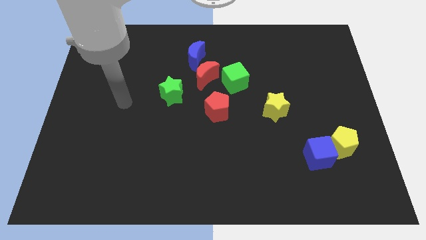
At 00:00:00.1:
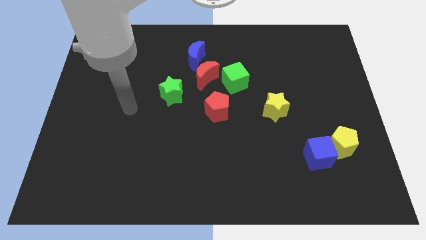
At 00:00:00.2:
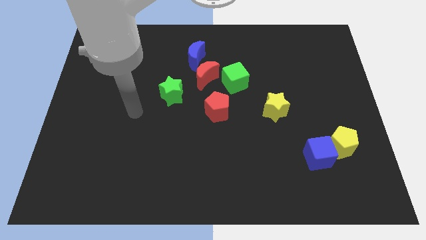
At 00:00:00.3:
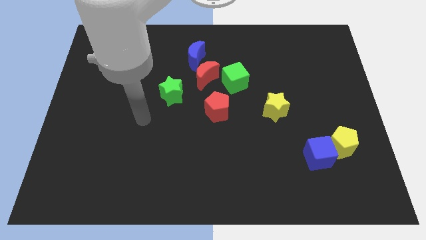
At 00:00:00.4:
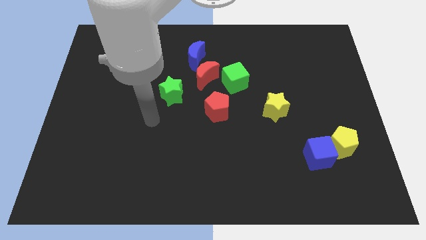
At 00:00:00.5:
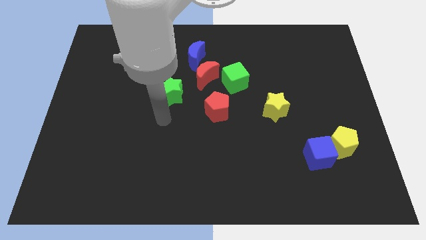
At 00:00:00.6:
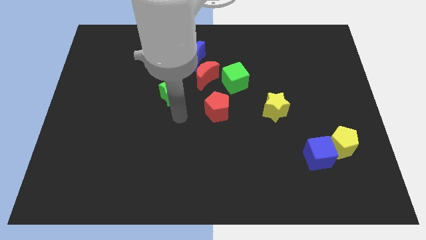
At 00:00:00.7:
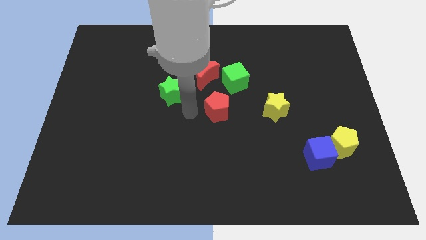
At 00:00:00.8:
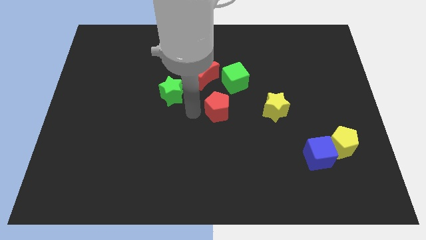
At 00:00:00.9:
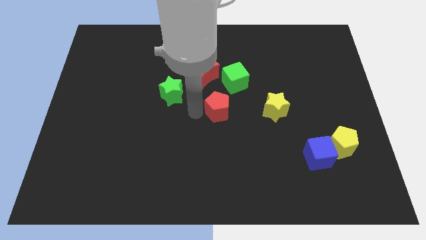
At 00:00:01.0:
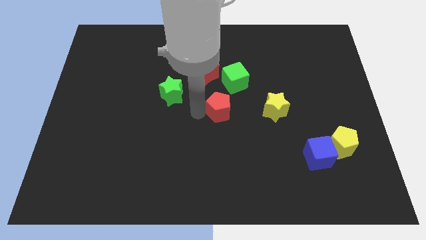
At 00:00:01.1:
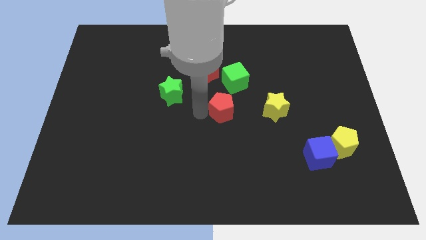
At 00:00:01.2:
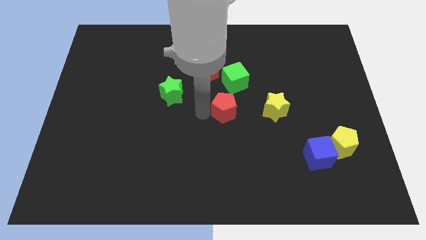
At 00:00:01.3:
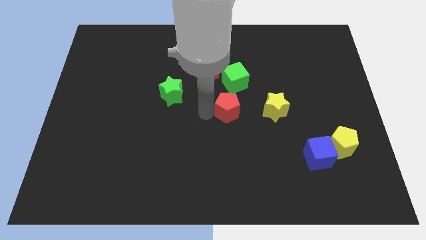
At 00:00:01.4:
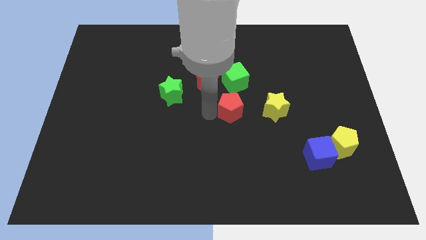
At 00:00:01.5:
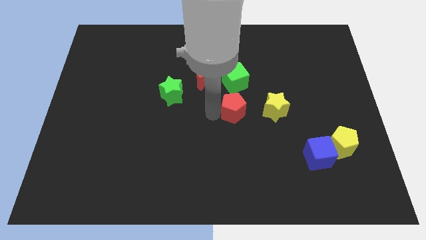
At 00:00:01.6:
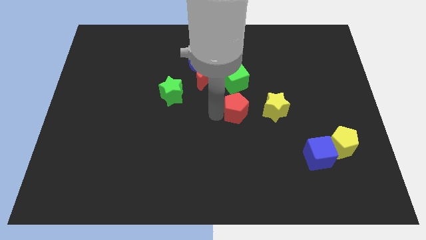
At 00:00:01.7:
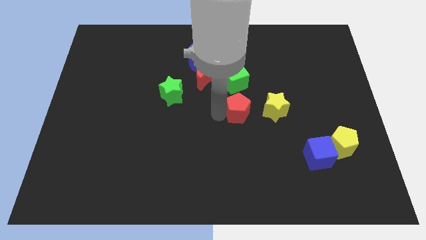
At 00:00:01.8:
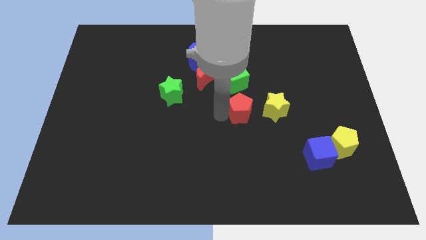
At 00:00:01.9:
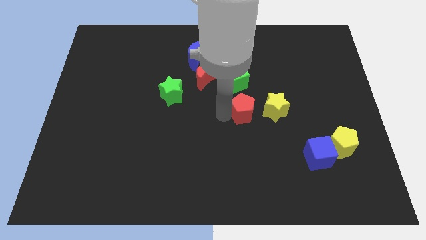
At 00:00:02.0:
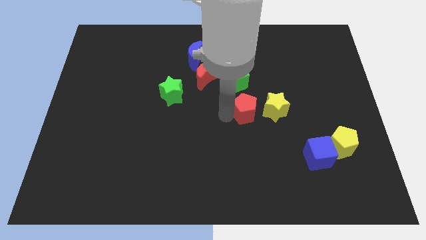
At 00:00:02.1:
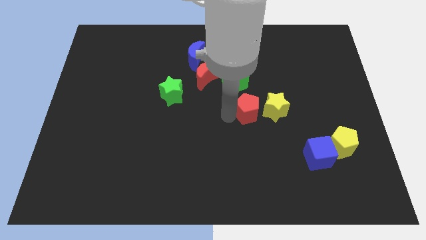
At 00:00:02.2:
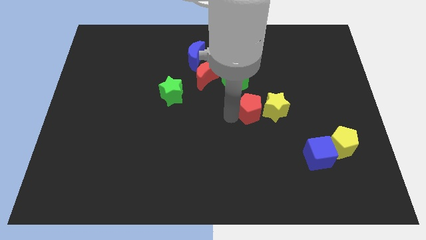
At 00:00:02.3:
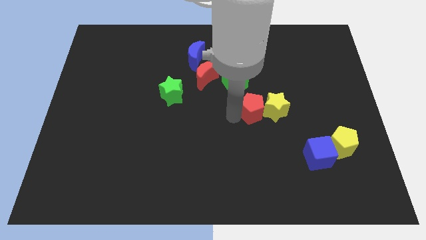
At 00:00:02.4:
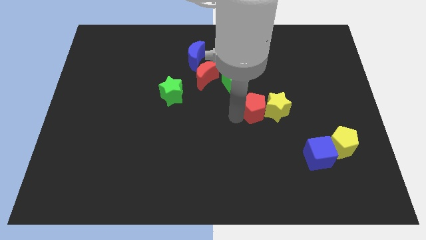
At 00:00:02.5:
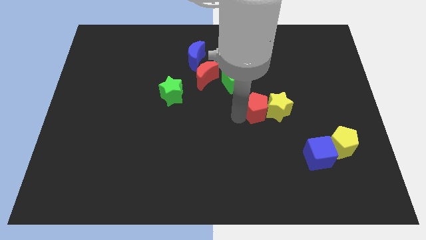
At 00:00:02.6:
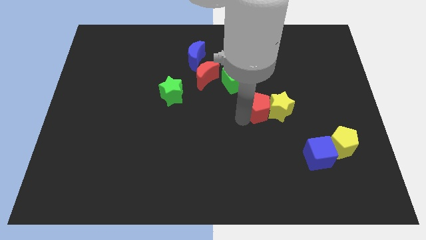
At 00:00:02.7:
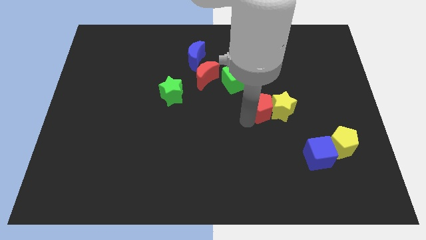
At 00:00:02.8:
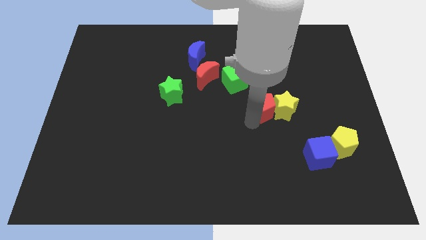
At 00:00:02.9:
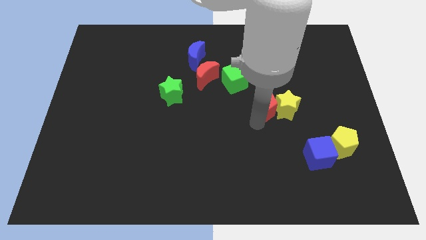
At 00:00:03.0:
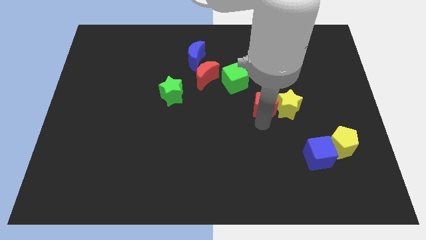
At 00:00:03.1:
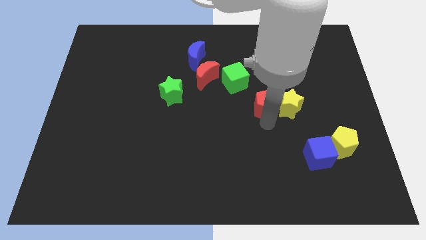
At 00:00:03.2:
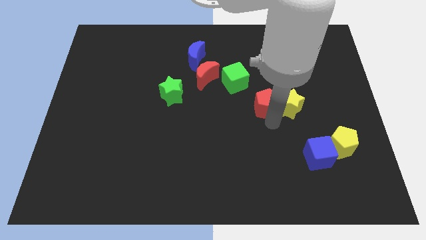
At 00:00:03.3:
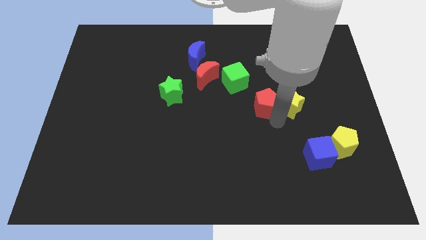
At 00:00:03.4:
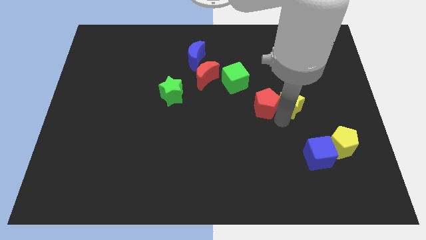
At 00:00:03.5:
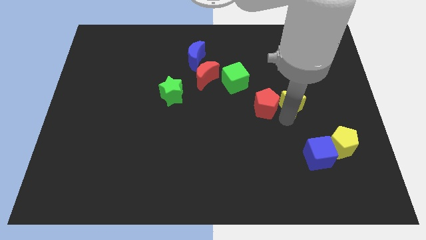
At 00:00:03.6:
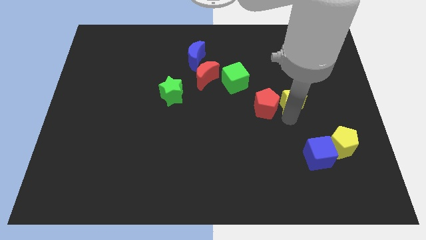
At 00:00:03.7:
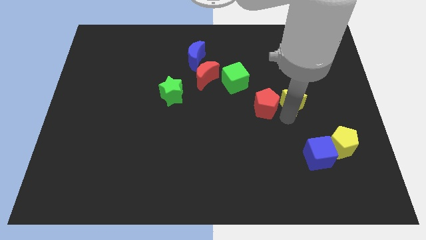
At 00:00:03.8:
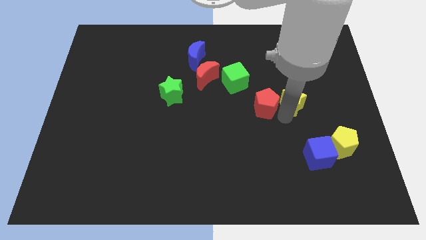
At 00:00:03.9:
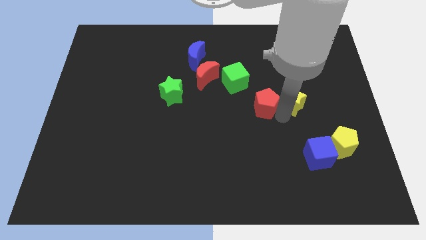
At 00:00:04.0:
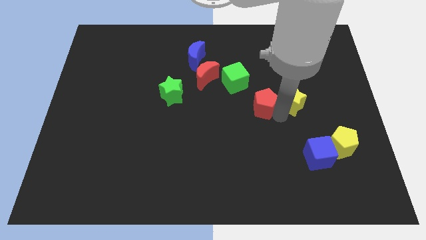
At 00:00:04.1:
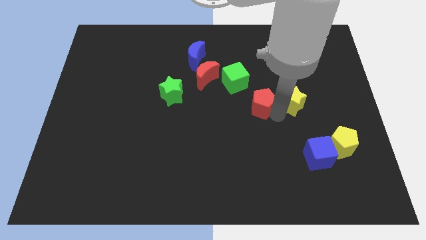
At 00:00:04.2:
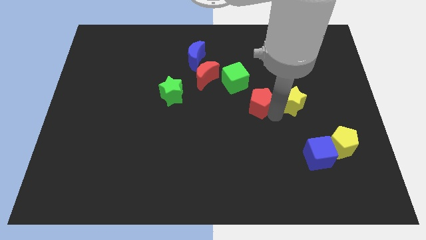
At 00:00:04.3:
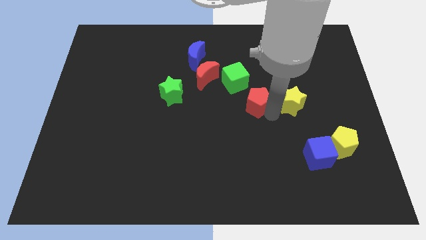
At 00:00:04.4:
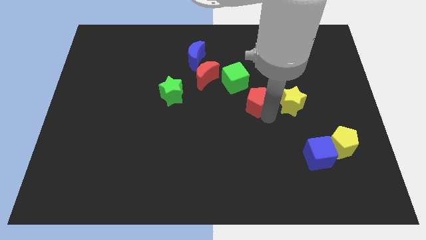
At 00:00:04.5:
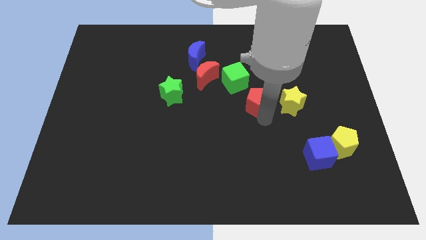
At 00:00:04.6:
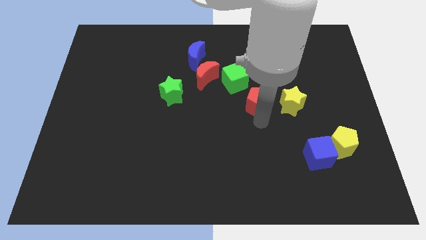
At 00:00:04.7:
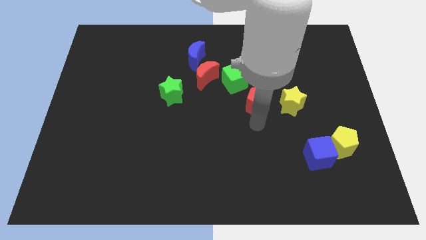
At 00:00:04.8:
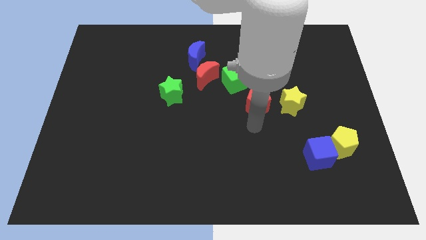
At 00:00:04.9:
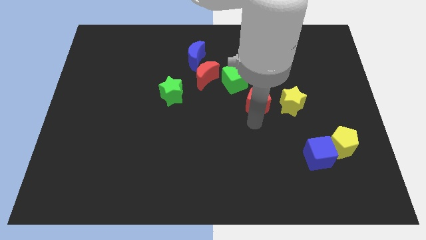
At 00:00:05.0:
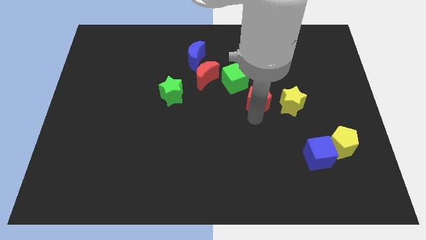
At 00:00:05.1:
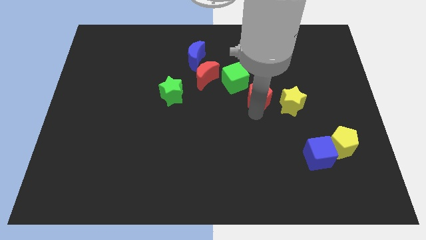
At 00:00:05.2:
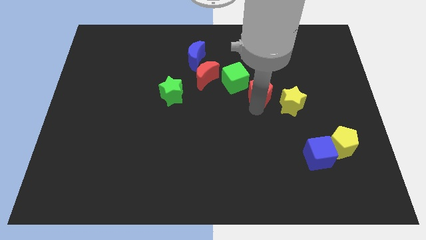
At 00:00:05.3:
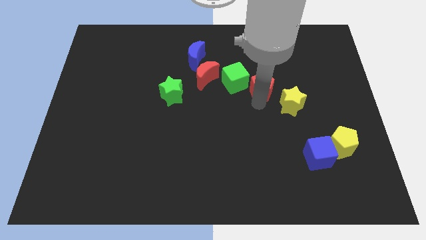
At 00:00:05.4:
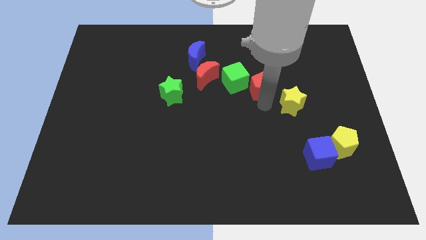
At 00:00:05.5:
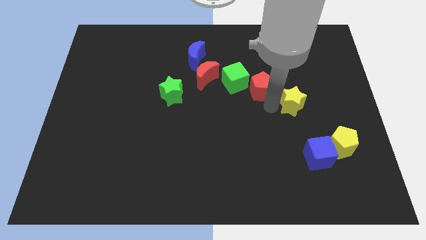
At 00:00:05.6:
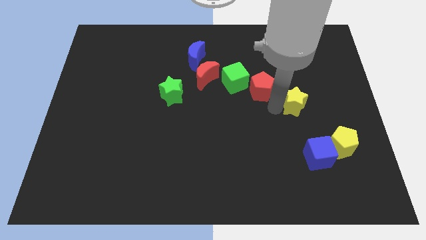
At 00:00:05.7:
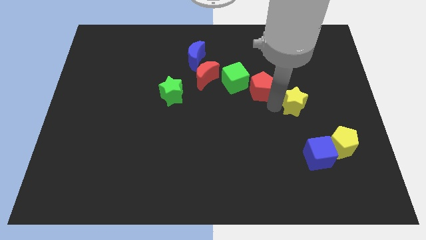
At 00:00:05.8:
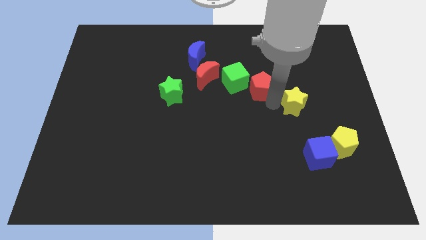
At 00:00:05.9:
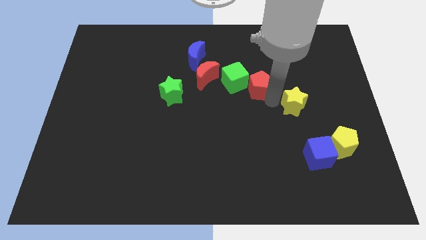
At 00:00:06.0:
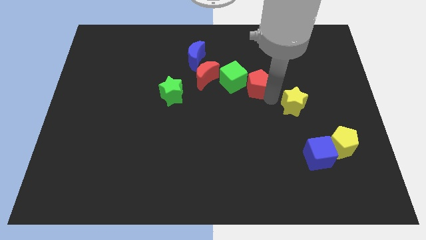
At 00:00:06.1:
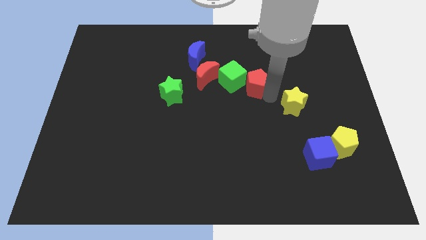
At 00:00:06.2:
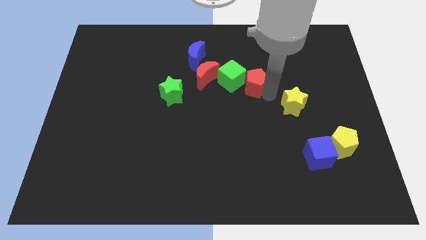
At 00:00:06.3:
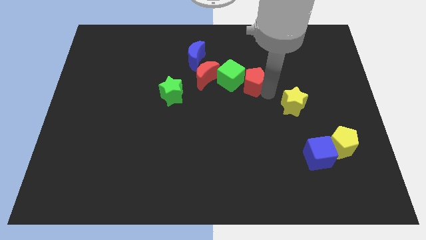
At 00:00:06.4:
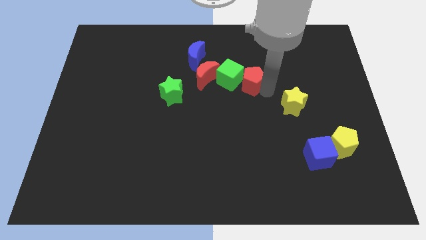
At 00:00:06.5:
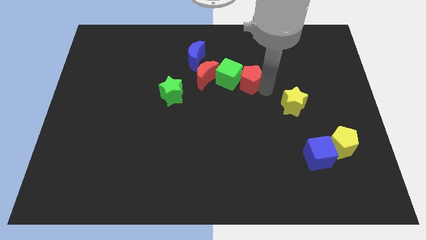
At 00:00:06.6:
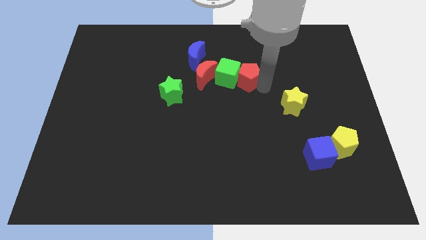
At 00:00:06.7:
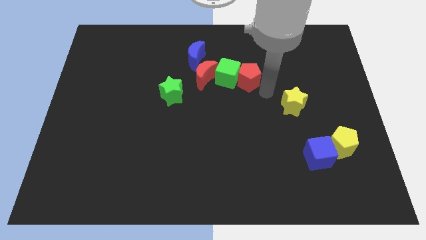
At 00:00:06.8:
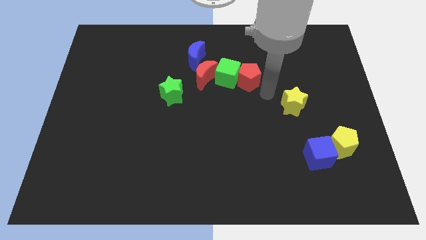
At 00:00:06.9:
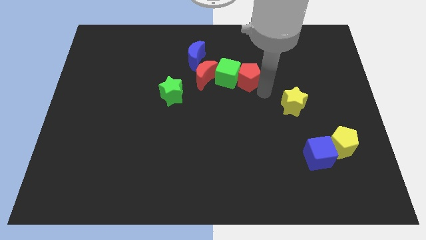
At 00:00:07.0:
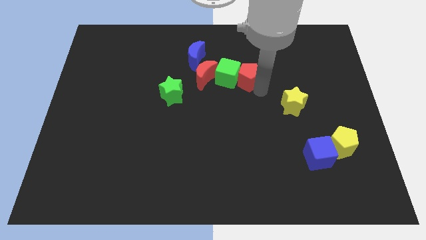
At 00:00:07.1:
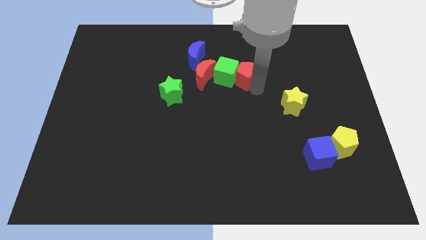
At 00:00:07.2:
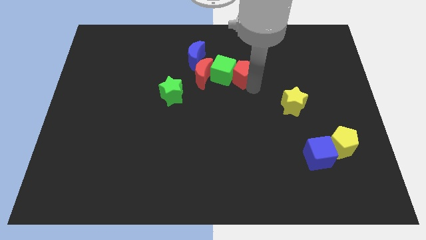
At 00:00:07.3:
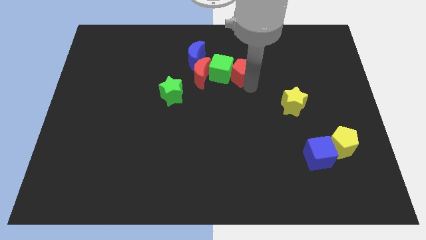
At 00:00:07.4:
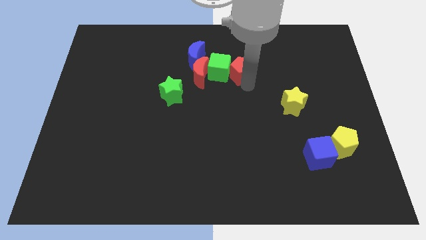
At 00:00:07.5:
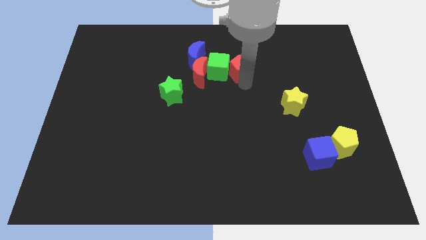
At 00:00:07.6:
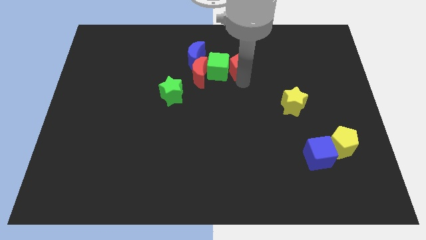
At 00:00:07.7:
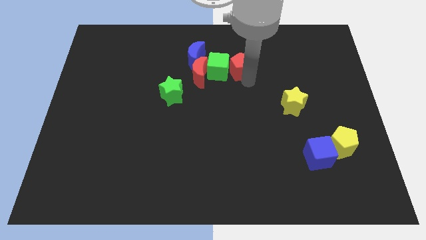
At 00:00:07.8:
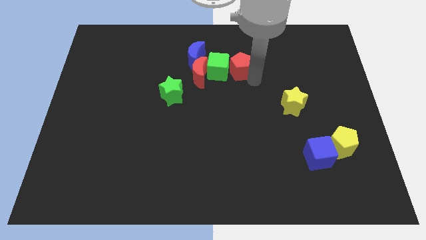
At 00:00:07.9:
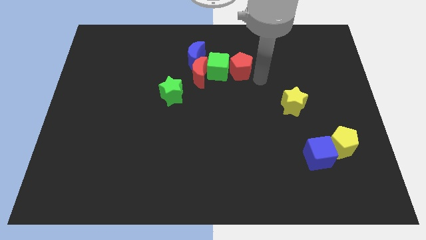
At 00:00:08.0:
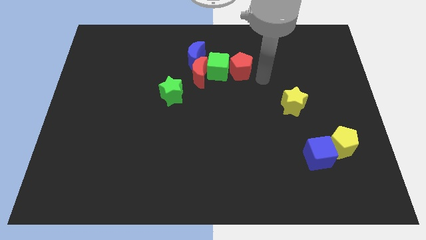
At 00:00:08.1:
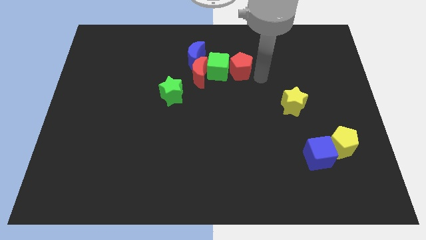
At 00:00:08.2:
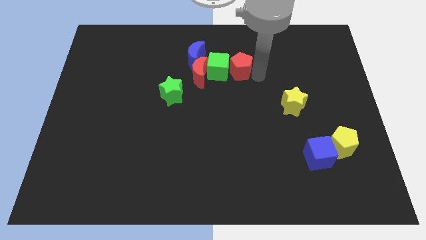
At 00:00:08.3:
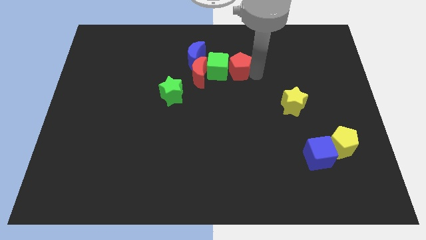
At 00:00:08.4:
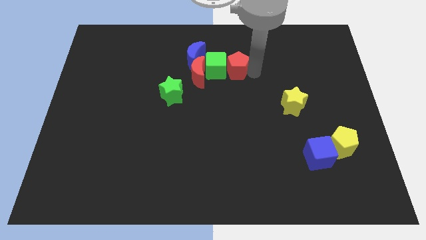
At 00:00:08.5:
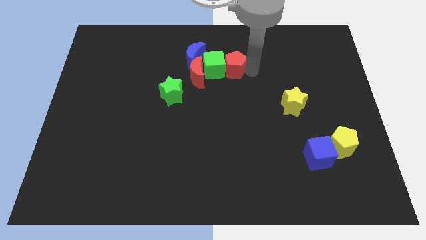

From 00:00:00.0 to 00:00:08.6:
slide the red pentagon to the top right side of the red moon
